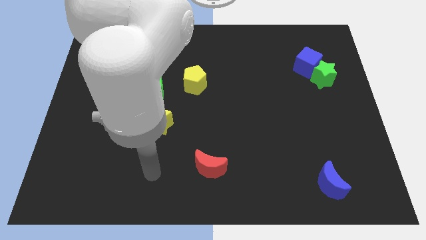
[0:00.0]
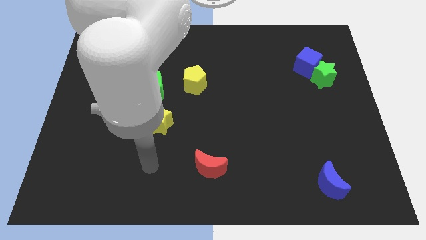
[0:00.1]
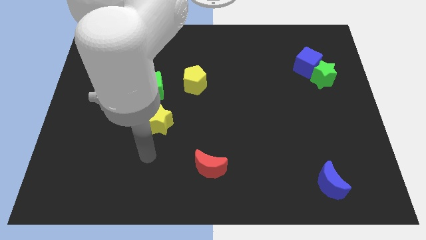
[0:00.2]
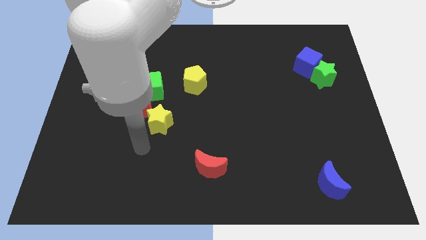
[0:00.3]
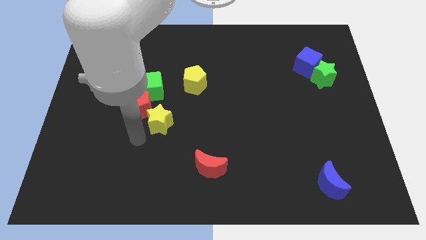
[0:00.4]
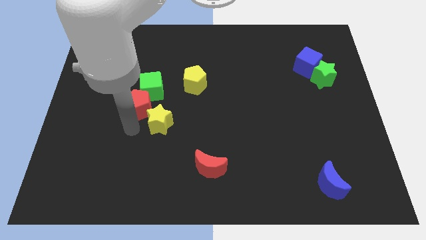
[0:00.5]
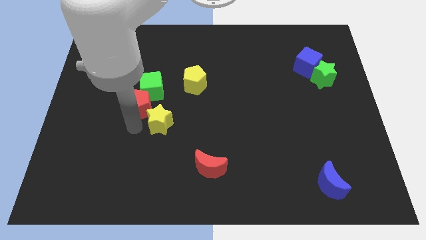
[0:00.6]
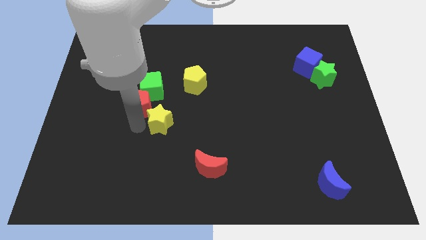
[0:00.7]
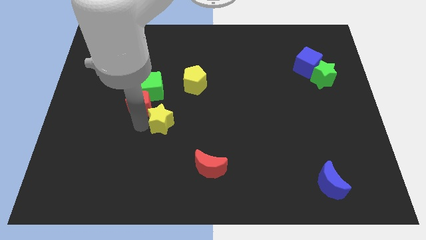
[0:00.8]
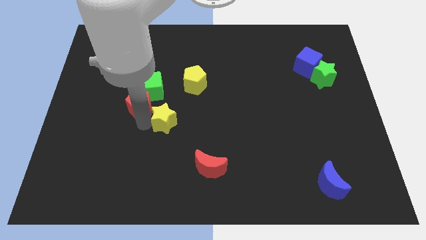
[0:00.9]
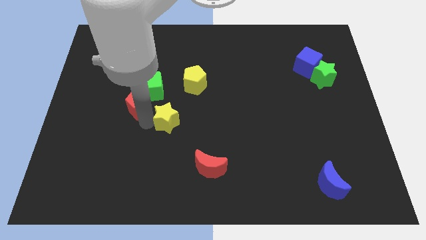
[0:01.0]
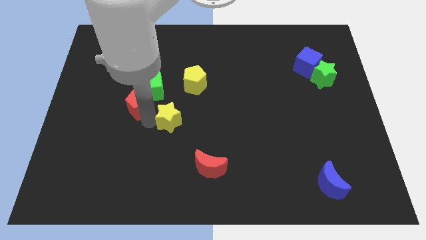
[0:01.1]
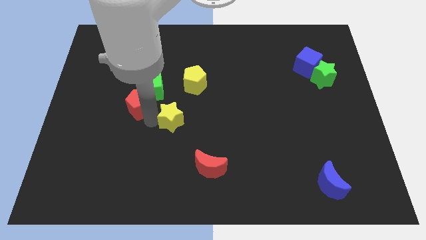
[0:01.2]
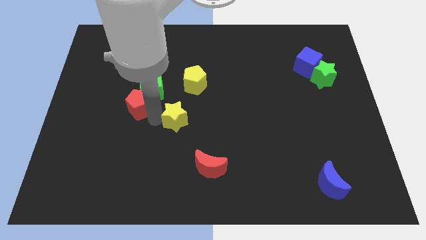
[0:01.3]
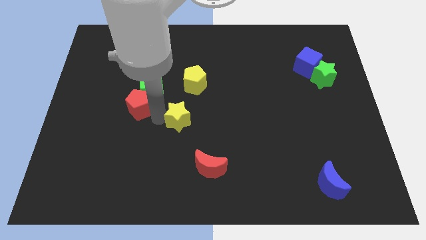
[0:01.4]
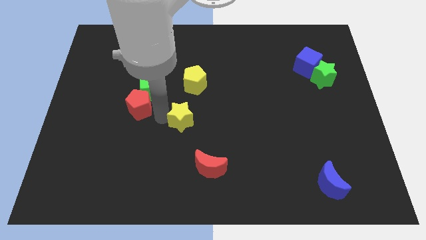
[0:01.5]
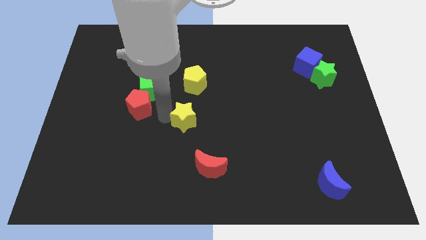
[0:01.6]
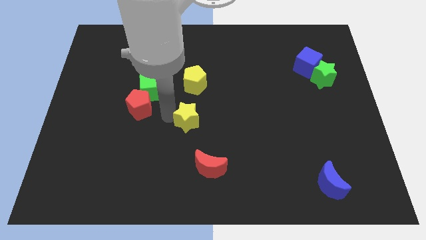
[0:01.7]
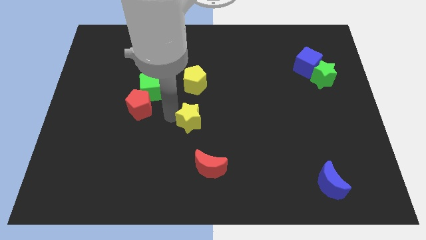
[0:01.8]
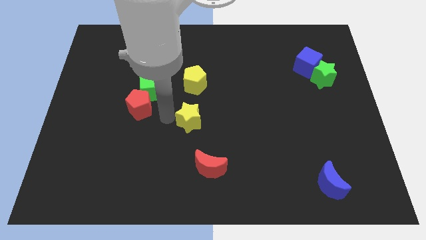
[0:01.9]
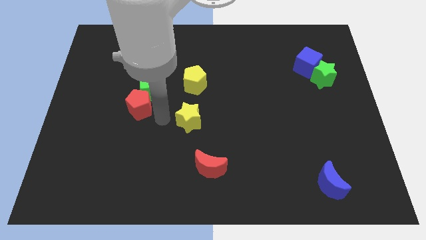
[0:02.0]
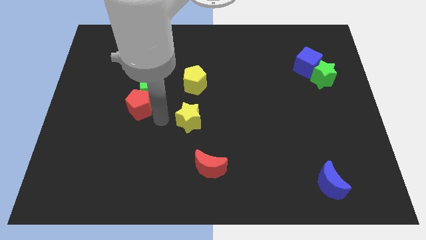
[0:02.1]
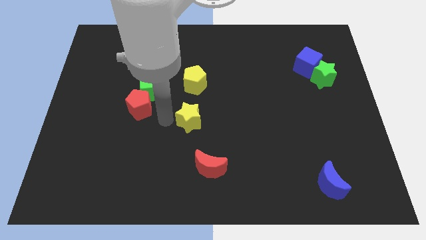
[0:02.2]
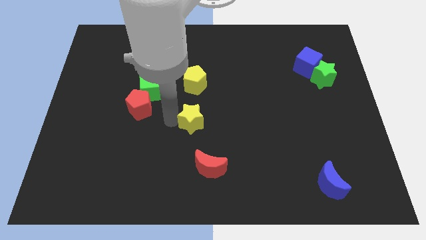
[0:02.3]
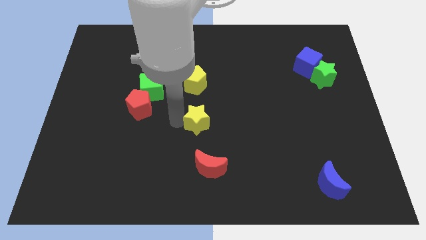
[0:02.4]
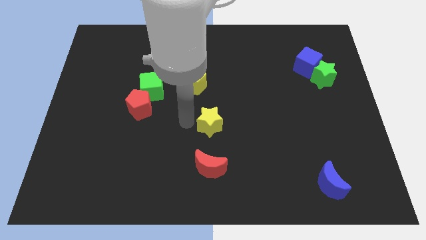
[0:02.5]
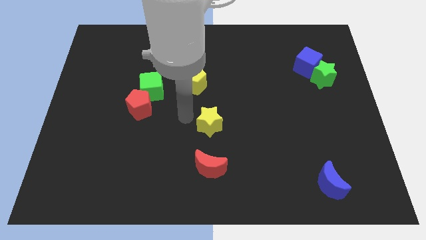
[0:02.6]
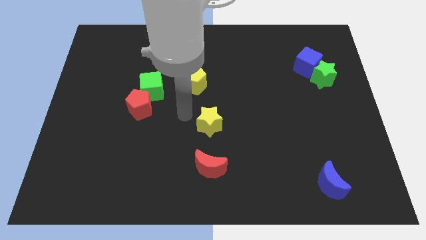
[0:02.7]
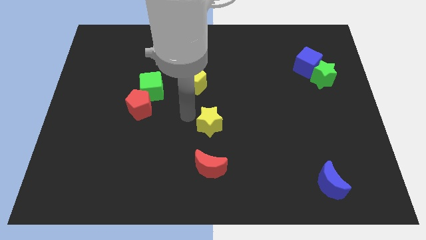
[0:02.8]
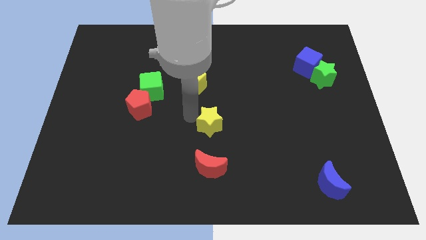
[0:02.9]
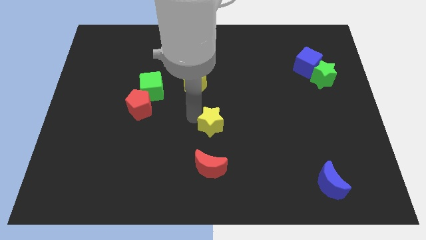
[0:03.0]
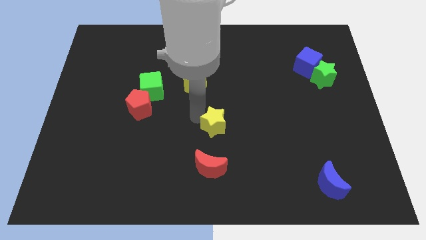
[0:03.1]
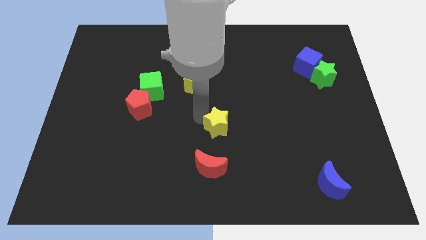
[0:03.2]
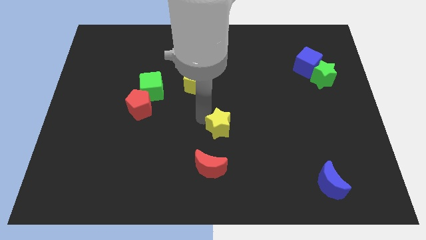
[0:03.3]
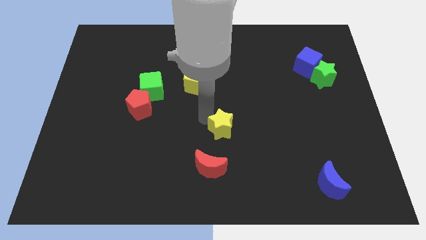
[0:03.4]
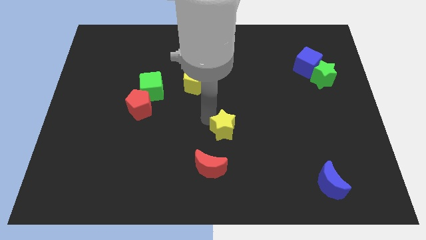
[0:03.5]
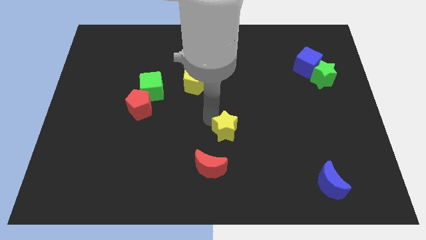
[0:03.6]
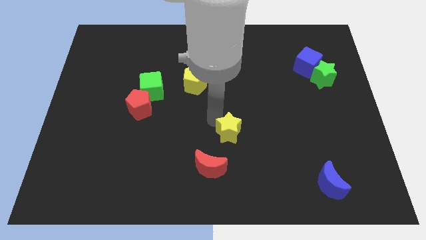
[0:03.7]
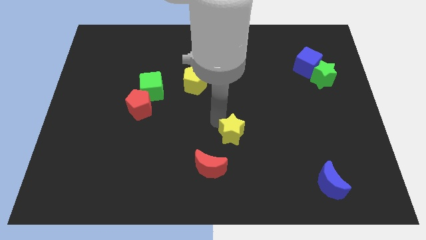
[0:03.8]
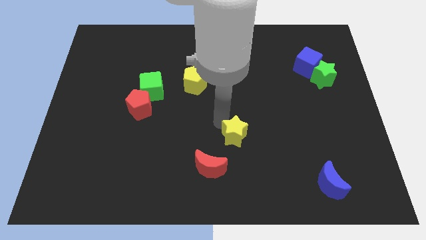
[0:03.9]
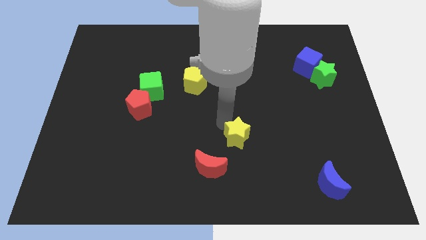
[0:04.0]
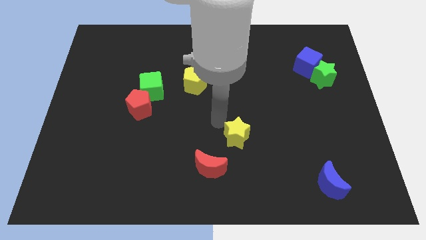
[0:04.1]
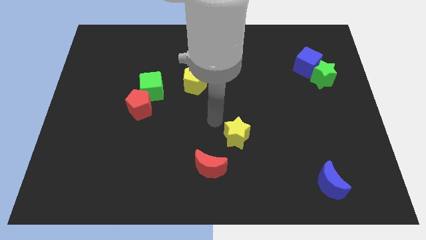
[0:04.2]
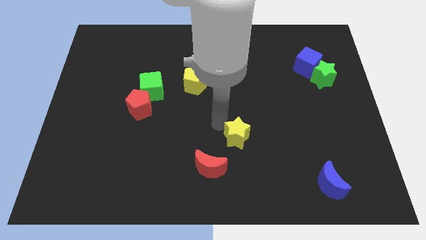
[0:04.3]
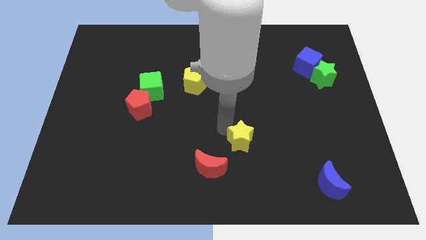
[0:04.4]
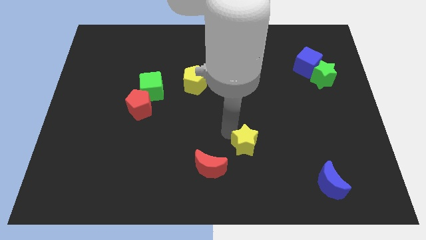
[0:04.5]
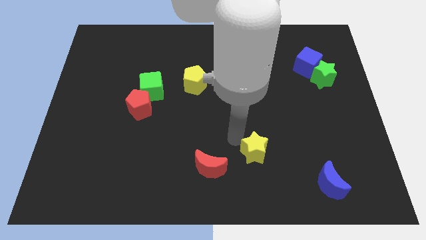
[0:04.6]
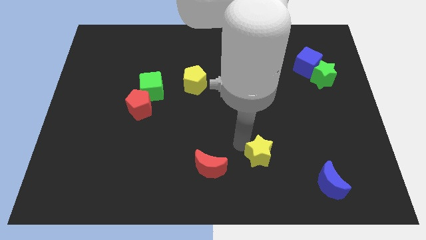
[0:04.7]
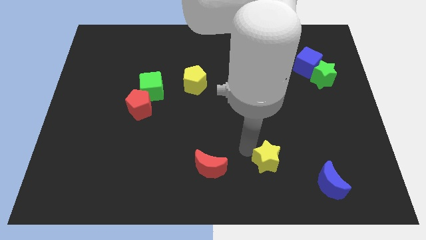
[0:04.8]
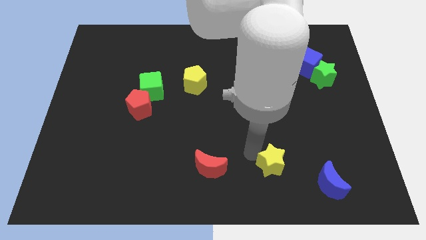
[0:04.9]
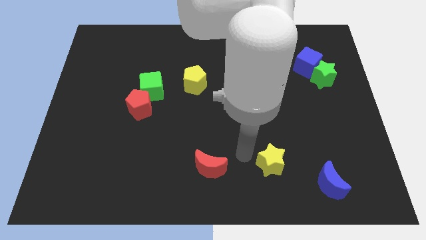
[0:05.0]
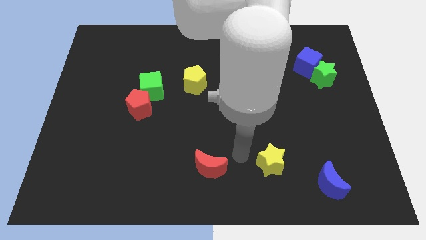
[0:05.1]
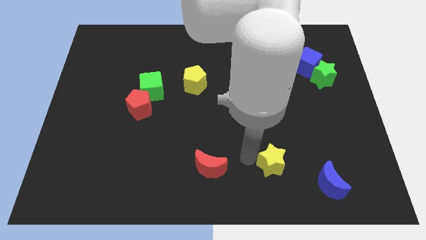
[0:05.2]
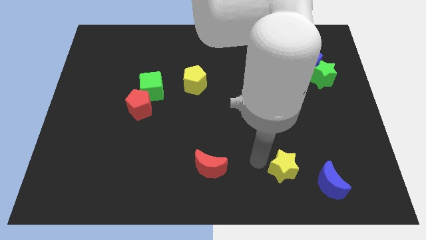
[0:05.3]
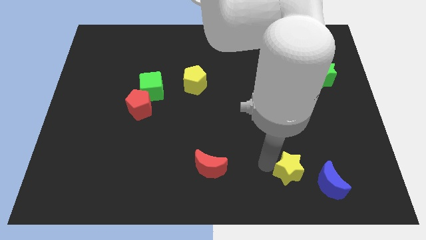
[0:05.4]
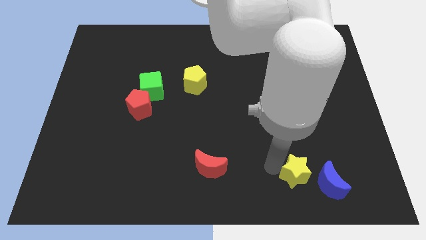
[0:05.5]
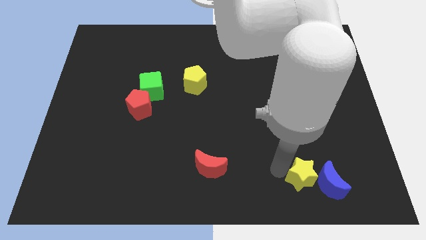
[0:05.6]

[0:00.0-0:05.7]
slide the yellow star towards the blue moon

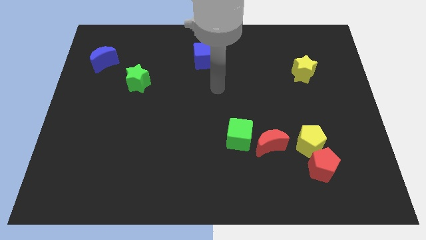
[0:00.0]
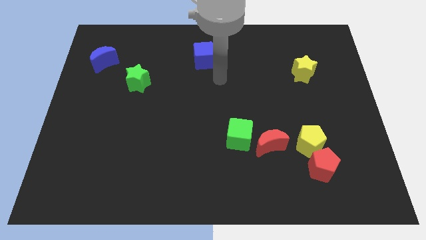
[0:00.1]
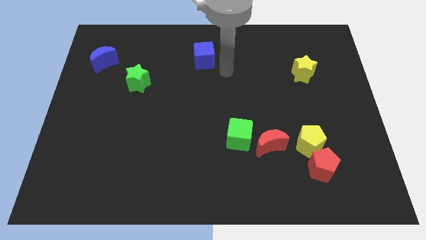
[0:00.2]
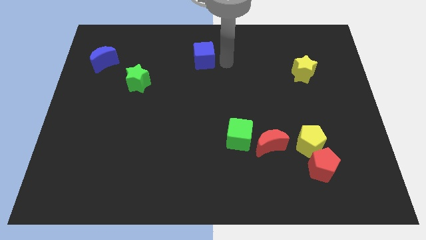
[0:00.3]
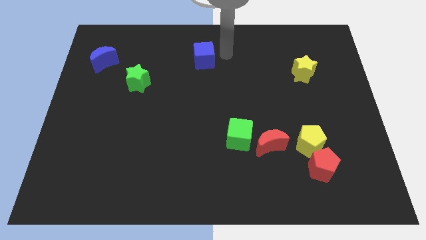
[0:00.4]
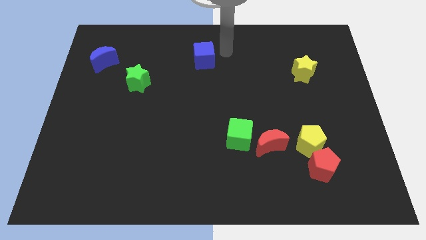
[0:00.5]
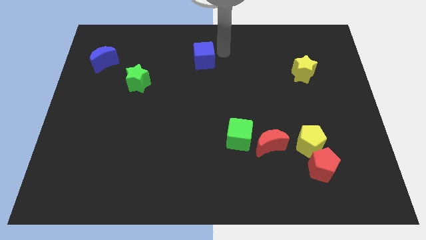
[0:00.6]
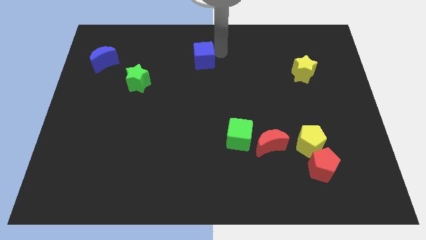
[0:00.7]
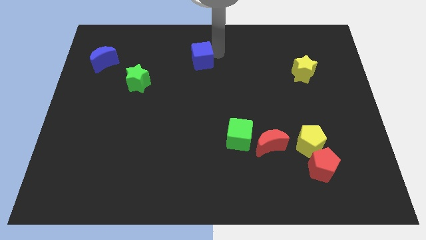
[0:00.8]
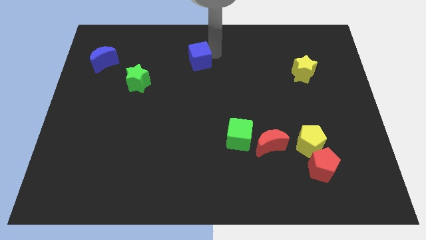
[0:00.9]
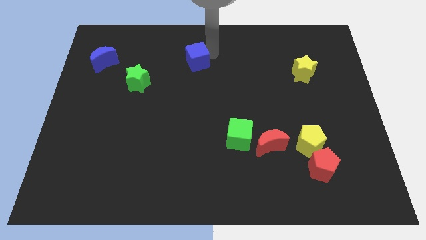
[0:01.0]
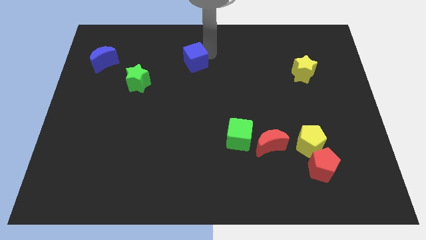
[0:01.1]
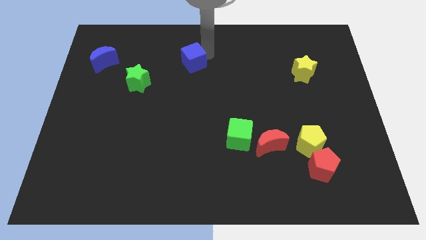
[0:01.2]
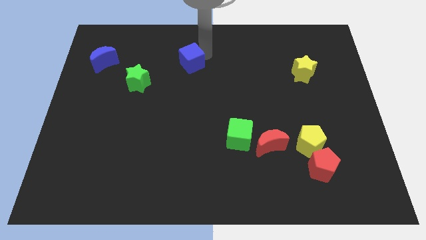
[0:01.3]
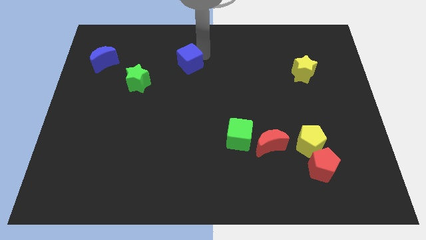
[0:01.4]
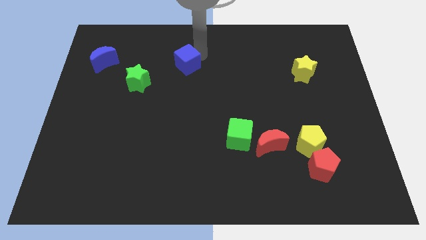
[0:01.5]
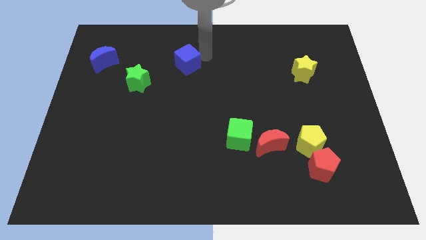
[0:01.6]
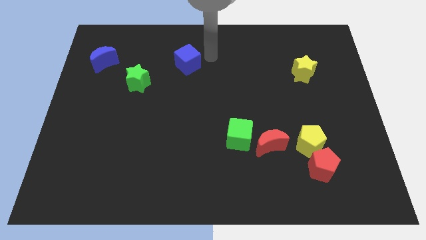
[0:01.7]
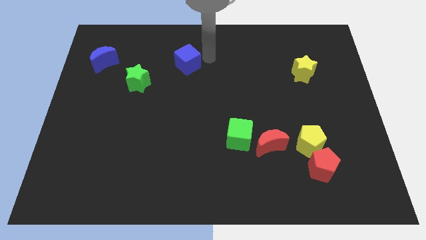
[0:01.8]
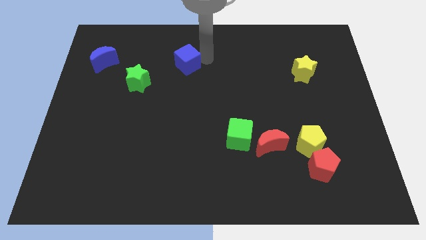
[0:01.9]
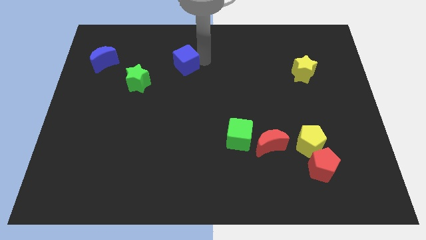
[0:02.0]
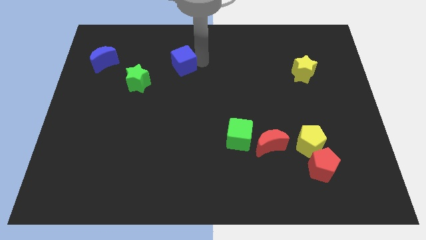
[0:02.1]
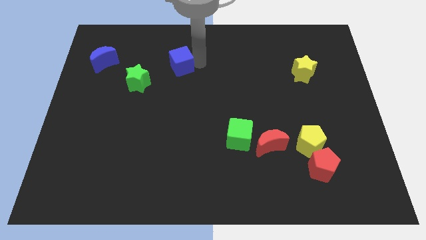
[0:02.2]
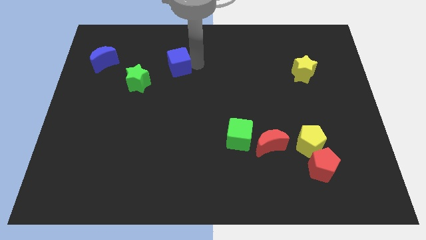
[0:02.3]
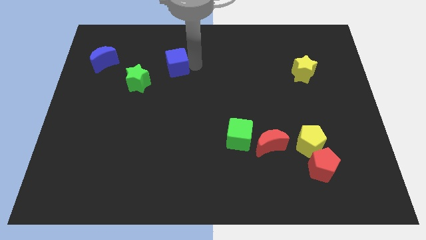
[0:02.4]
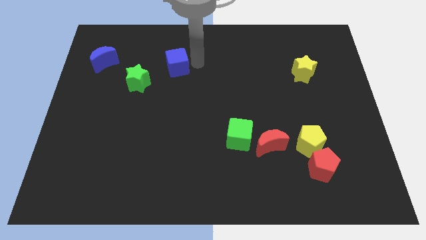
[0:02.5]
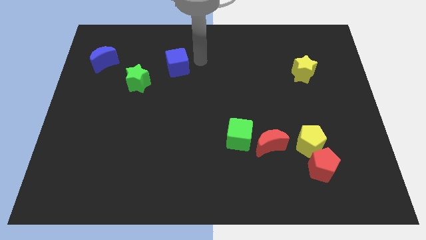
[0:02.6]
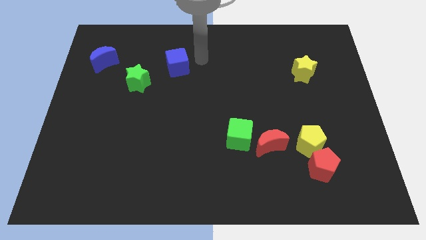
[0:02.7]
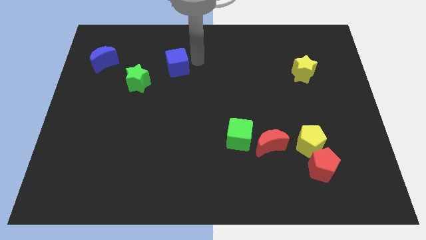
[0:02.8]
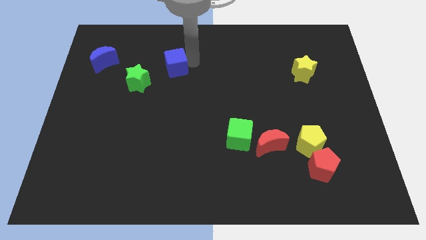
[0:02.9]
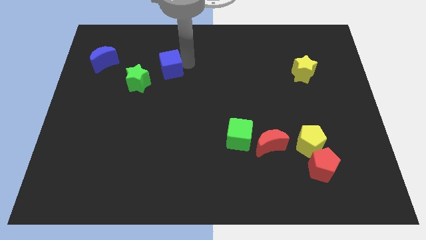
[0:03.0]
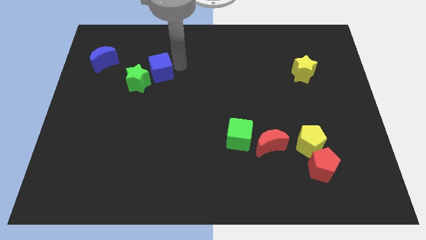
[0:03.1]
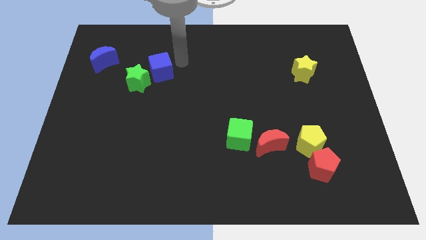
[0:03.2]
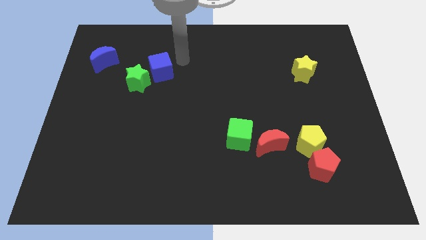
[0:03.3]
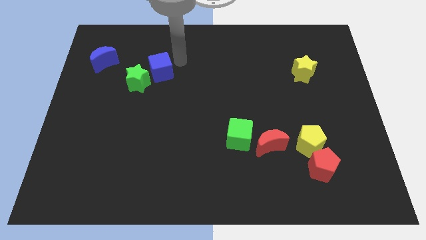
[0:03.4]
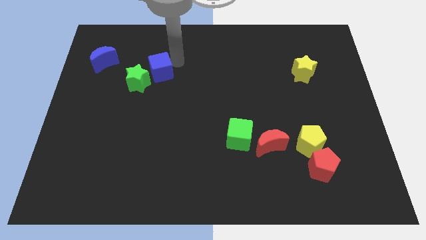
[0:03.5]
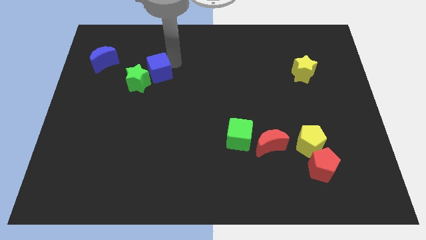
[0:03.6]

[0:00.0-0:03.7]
push the blue cube towards the green star
